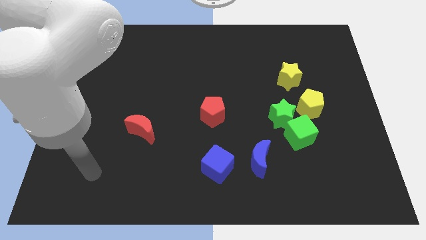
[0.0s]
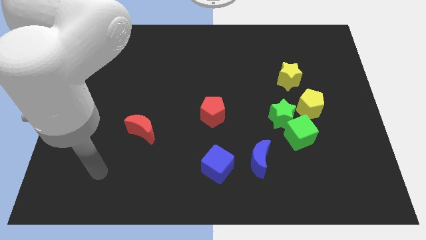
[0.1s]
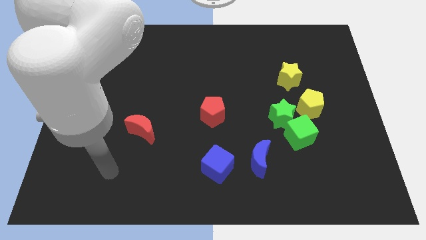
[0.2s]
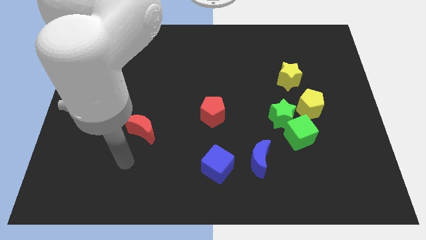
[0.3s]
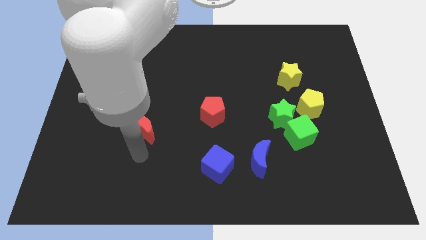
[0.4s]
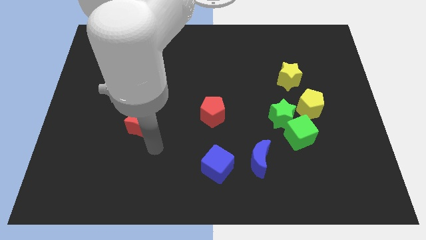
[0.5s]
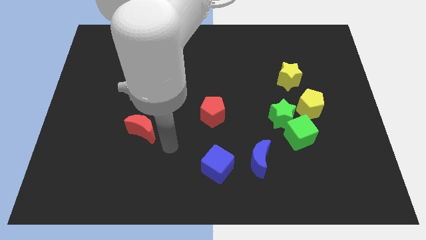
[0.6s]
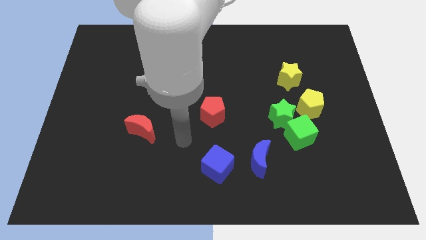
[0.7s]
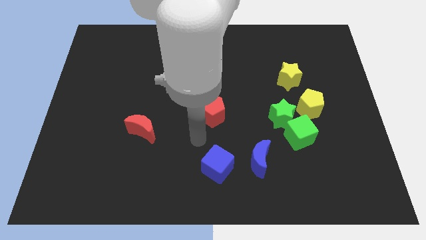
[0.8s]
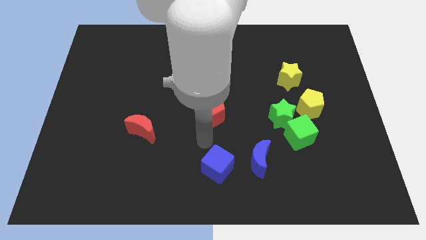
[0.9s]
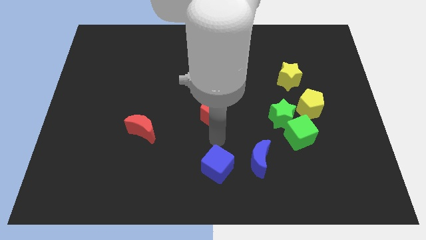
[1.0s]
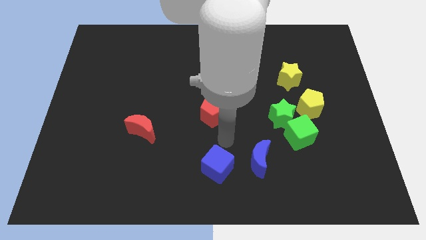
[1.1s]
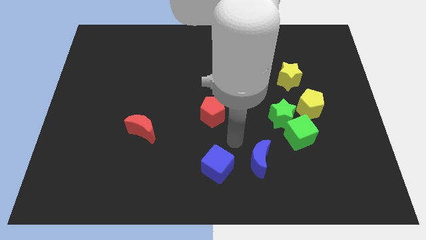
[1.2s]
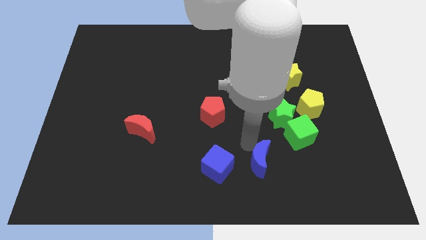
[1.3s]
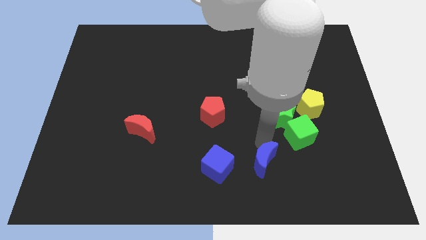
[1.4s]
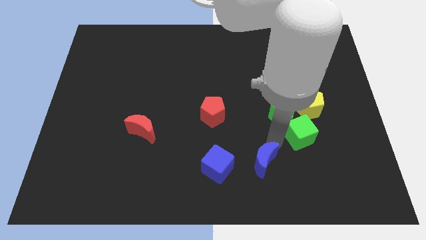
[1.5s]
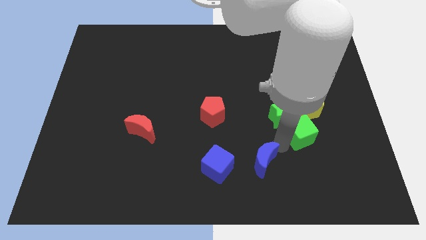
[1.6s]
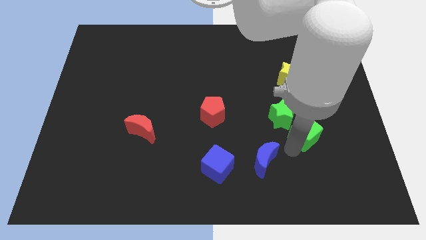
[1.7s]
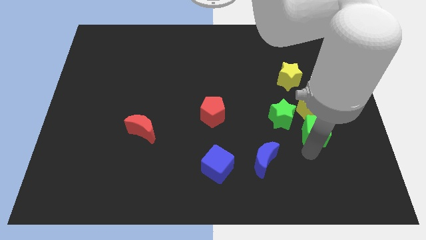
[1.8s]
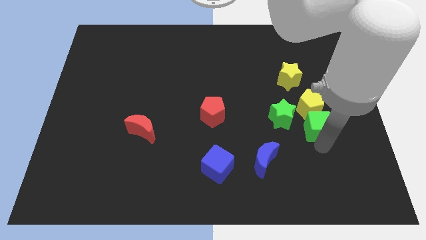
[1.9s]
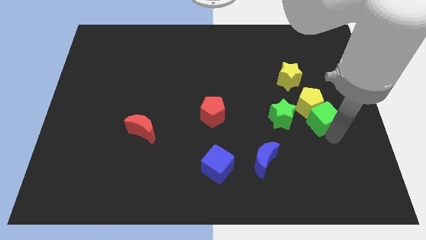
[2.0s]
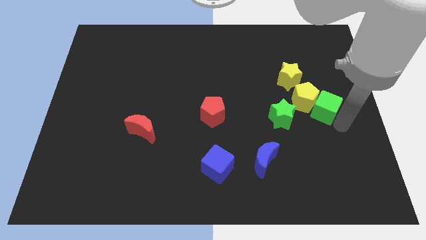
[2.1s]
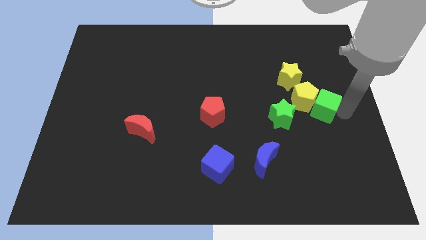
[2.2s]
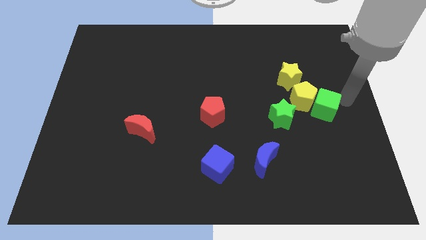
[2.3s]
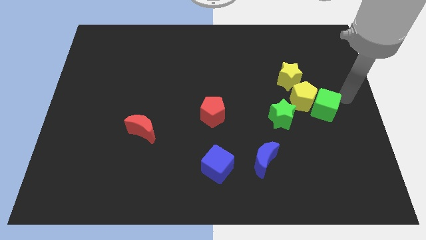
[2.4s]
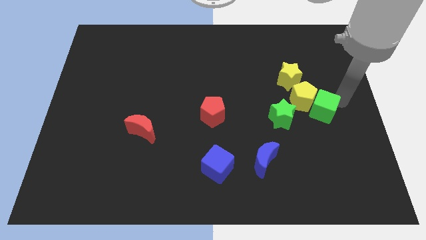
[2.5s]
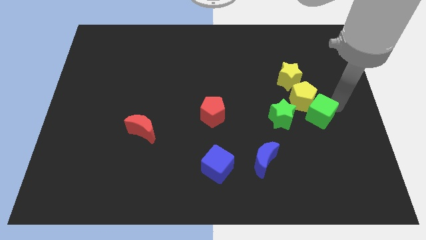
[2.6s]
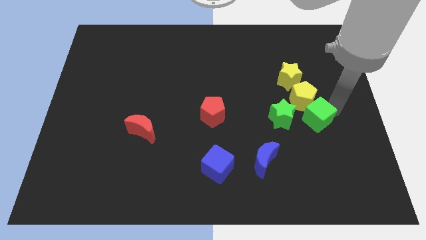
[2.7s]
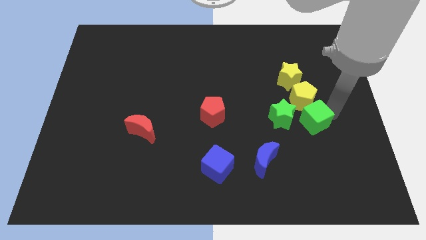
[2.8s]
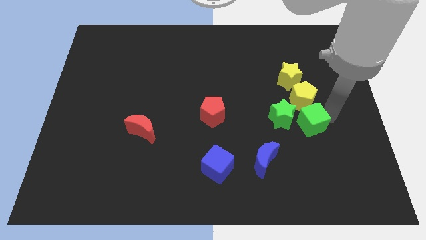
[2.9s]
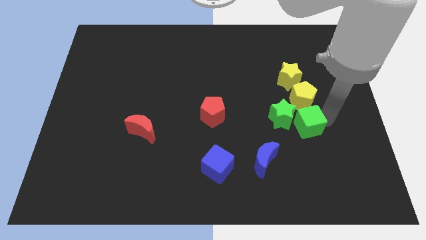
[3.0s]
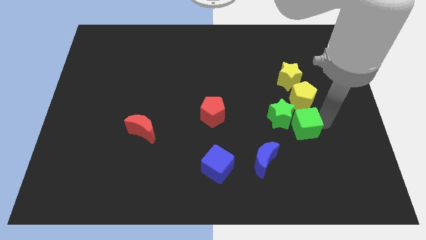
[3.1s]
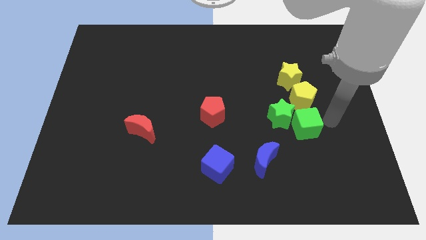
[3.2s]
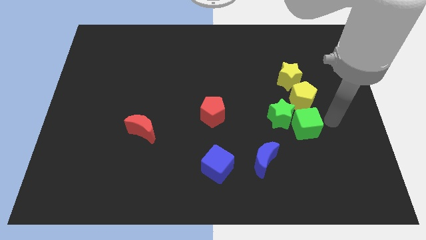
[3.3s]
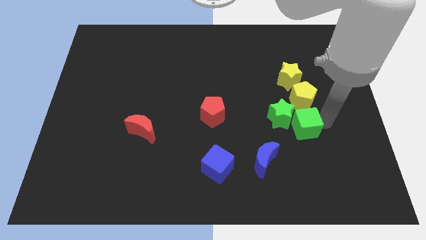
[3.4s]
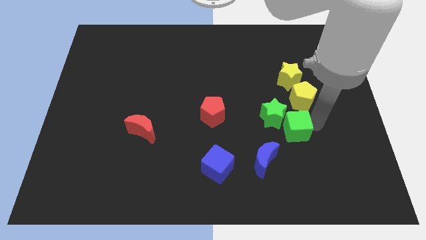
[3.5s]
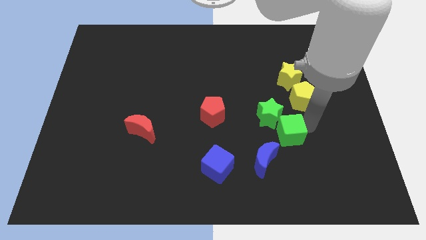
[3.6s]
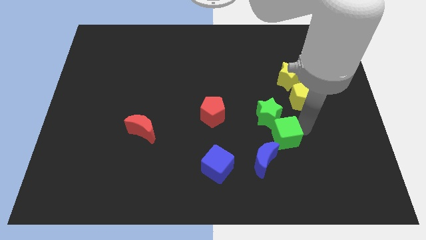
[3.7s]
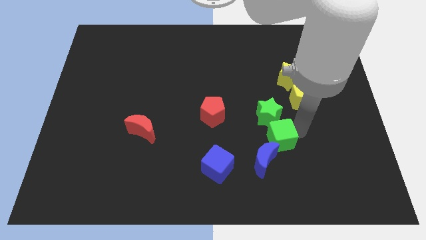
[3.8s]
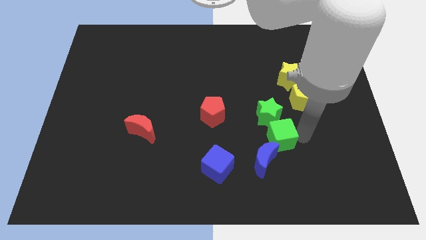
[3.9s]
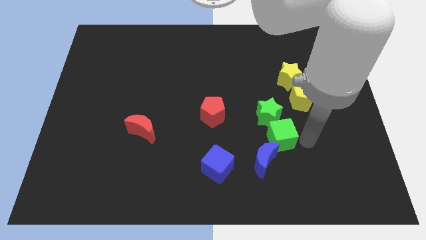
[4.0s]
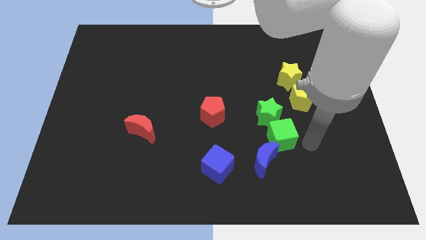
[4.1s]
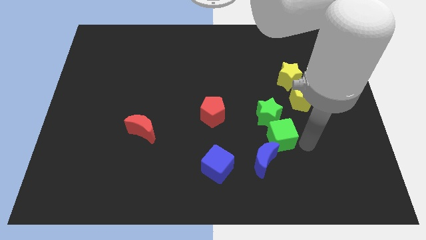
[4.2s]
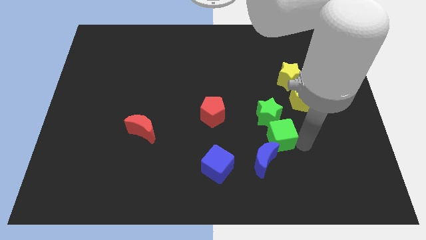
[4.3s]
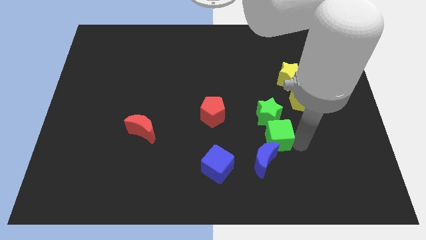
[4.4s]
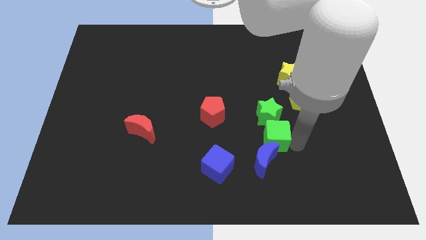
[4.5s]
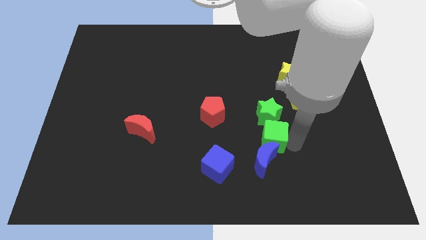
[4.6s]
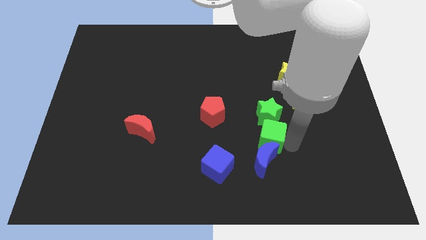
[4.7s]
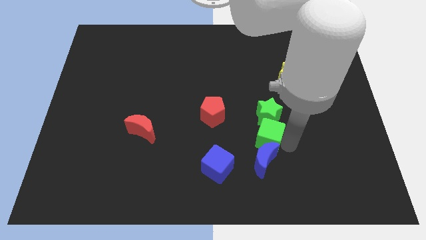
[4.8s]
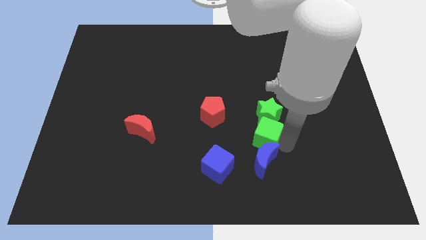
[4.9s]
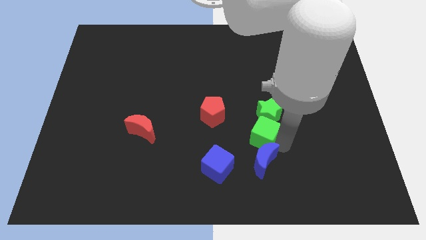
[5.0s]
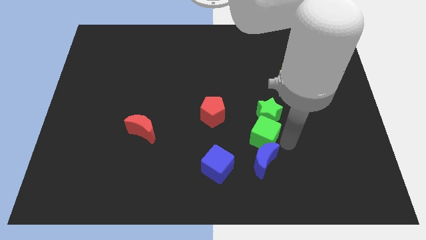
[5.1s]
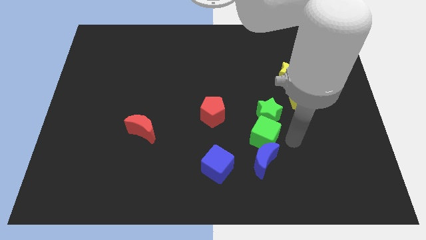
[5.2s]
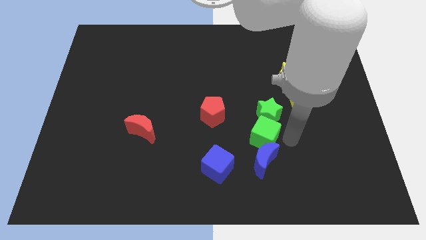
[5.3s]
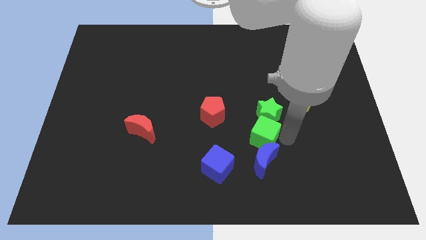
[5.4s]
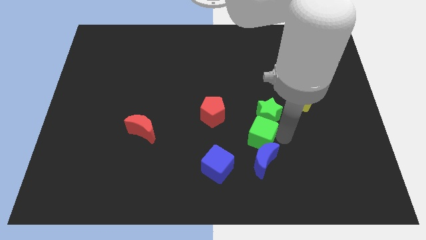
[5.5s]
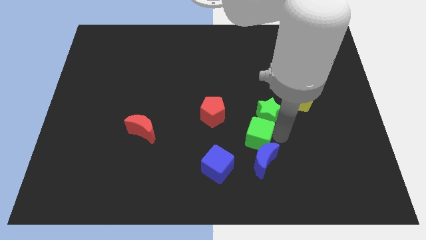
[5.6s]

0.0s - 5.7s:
move the green cube to the bottom right side of the red pentagon

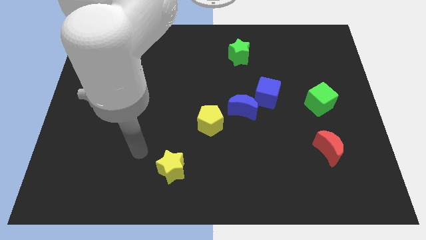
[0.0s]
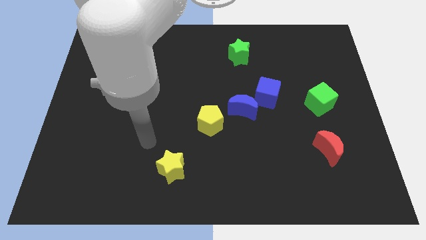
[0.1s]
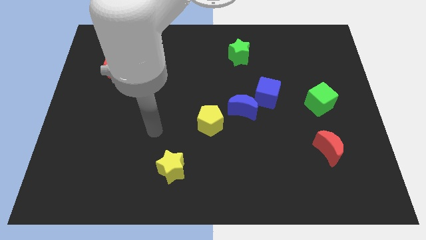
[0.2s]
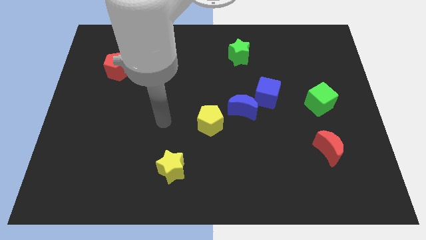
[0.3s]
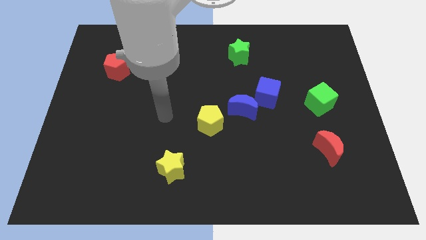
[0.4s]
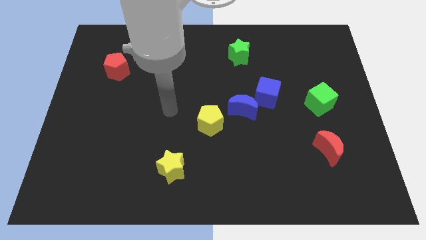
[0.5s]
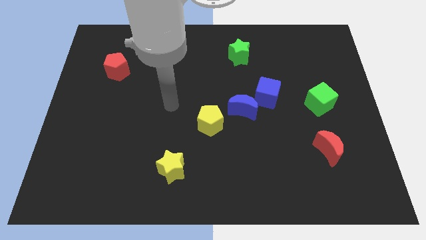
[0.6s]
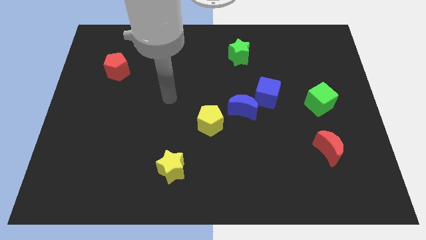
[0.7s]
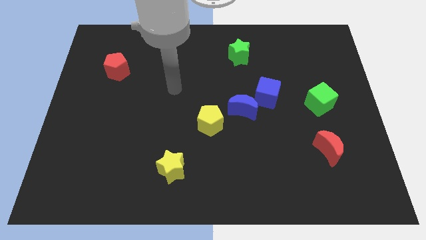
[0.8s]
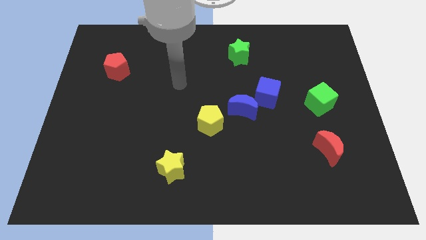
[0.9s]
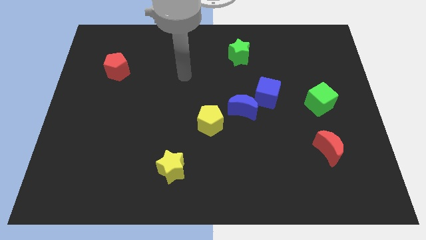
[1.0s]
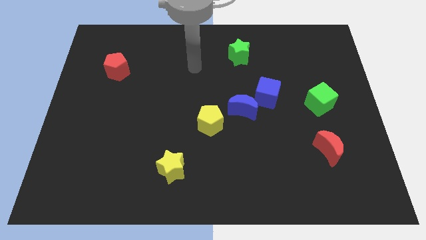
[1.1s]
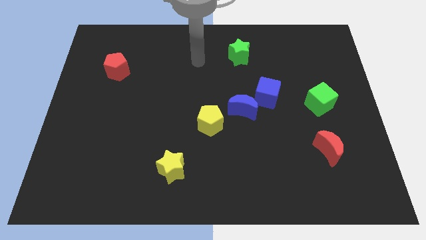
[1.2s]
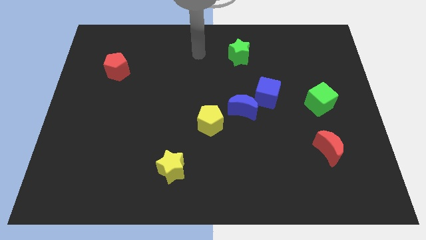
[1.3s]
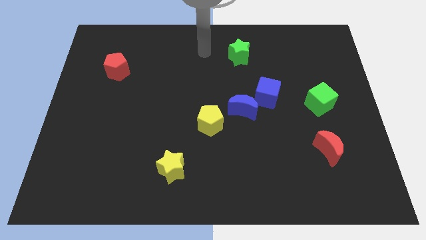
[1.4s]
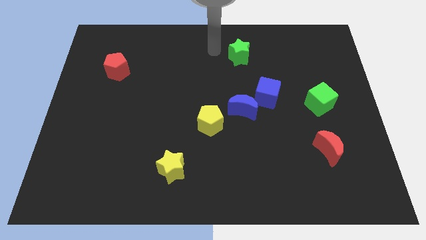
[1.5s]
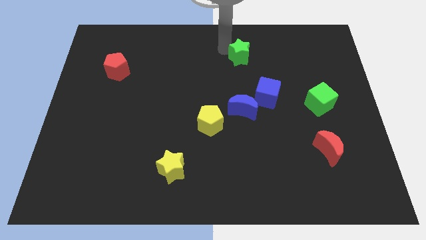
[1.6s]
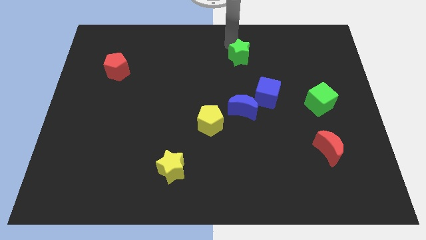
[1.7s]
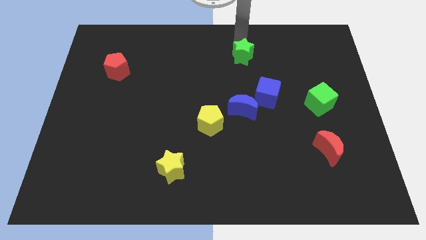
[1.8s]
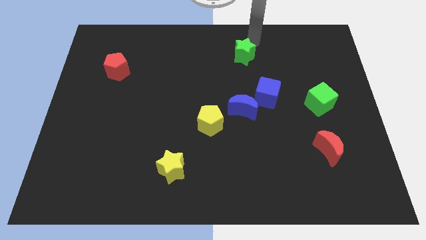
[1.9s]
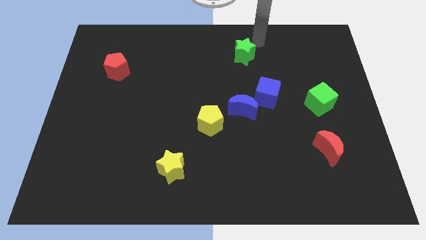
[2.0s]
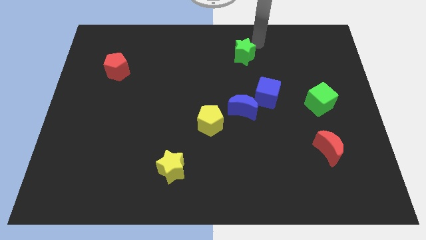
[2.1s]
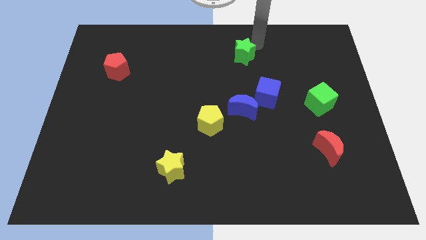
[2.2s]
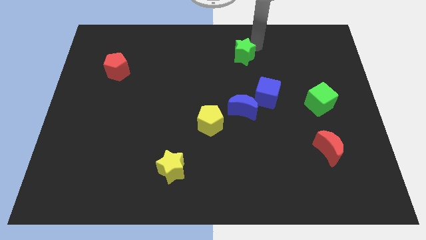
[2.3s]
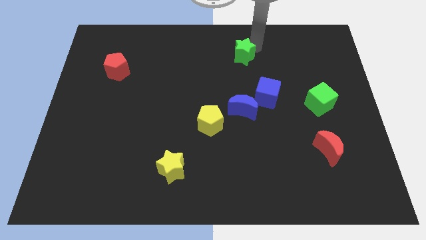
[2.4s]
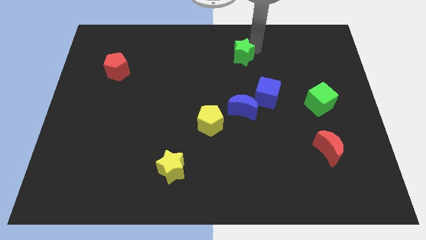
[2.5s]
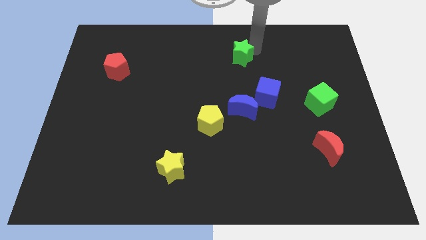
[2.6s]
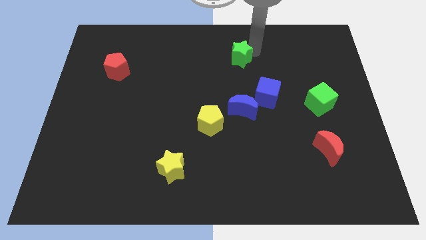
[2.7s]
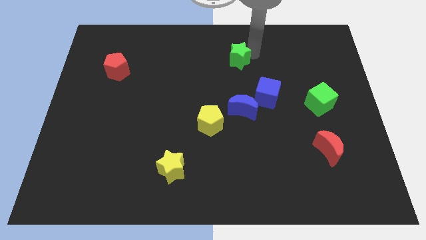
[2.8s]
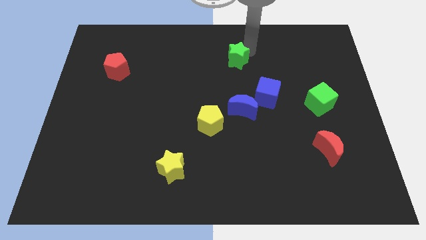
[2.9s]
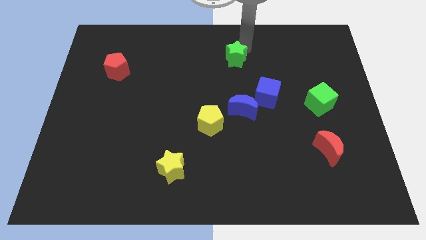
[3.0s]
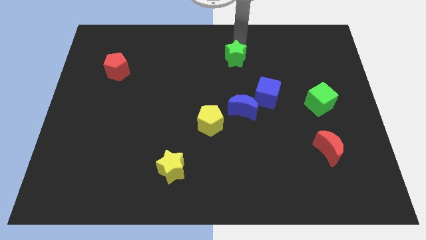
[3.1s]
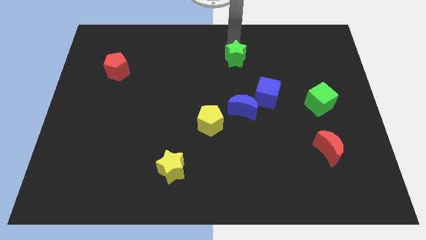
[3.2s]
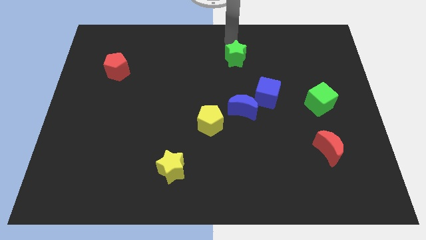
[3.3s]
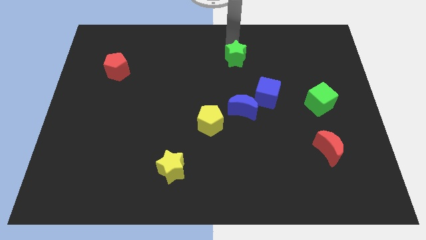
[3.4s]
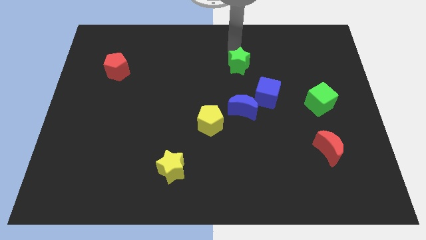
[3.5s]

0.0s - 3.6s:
push the green star to the top left of the blue cube
